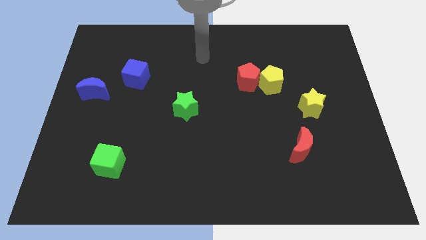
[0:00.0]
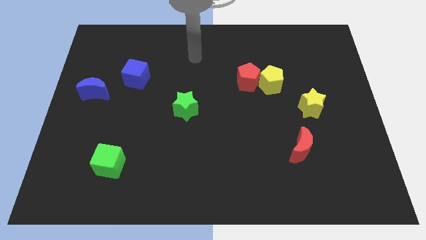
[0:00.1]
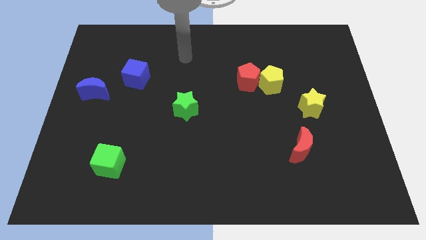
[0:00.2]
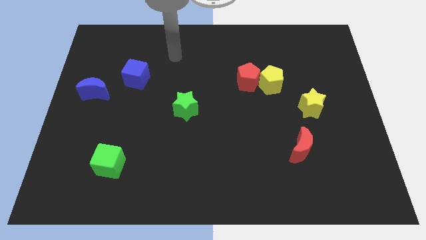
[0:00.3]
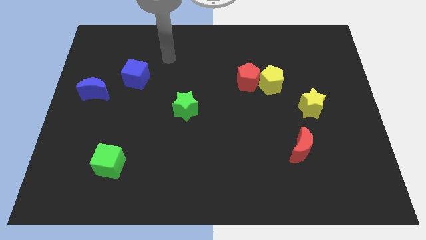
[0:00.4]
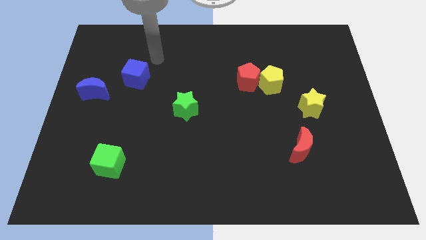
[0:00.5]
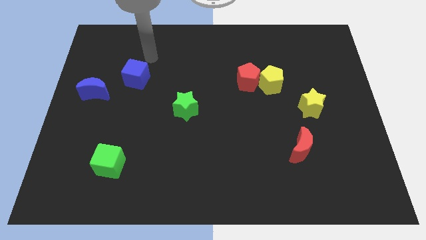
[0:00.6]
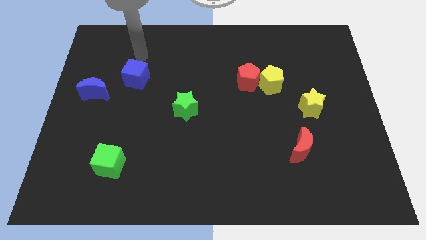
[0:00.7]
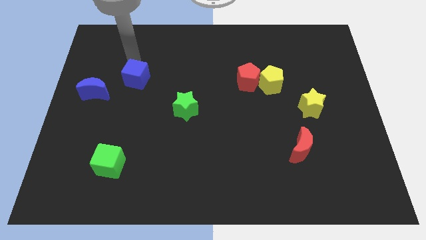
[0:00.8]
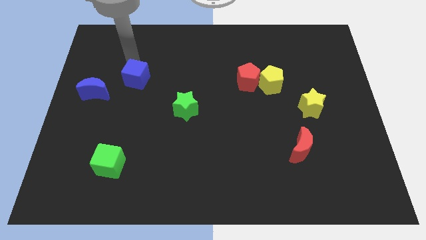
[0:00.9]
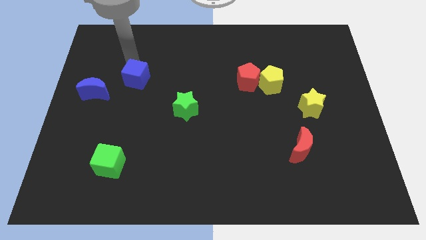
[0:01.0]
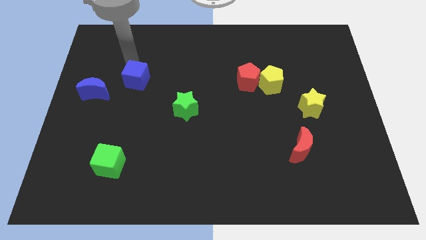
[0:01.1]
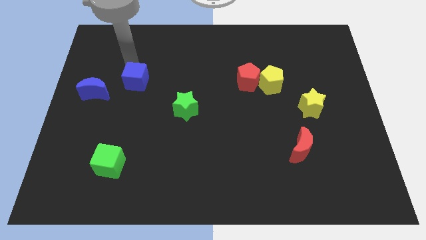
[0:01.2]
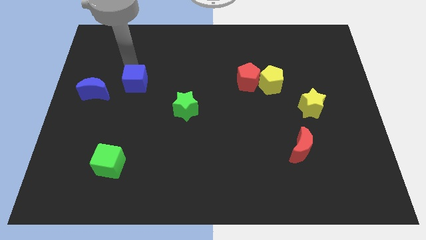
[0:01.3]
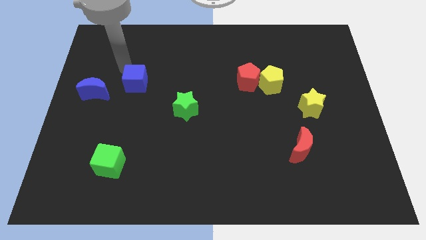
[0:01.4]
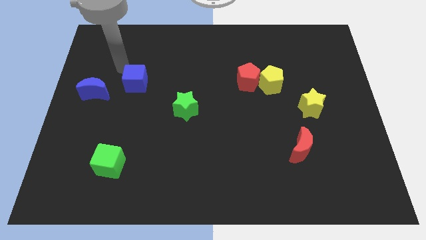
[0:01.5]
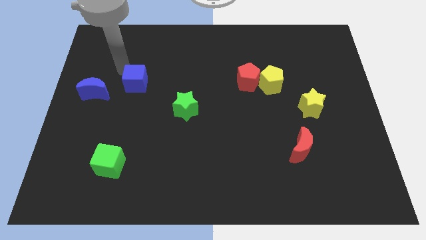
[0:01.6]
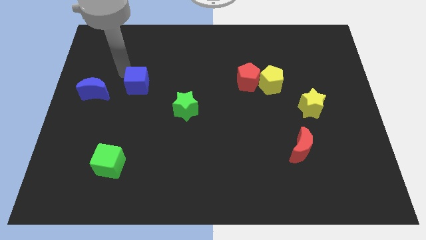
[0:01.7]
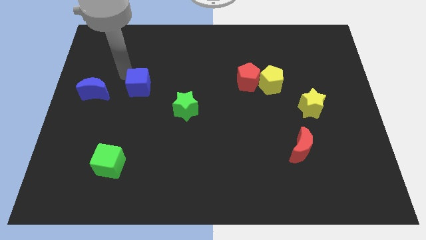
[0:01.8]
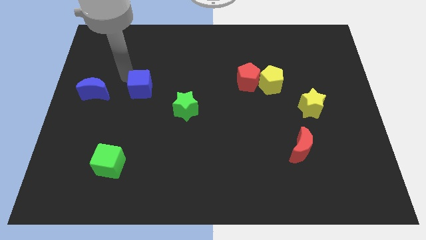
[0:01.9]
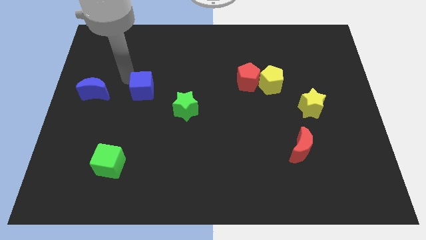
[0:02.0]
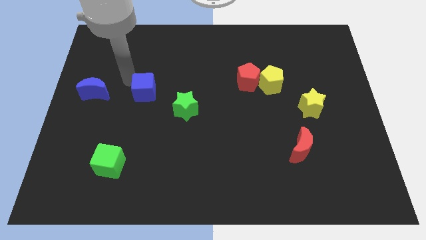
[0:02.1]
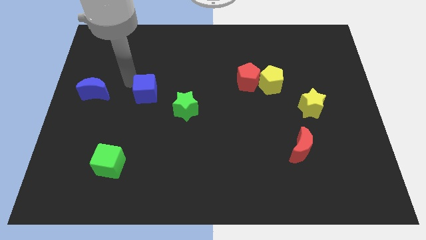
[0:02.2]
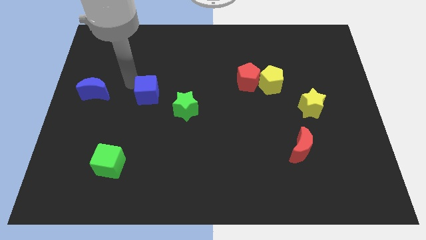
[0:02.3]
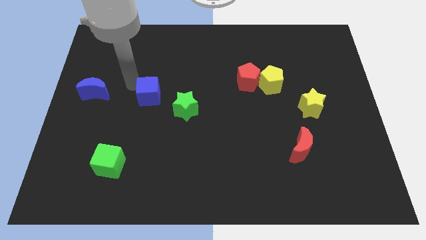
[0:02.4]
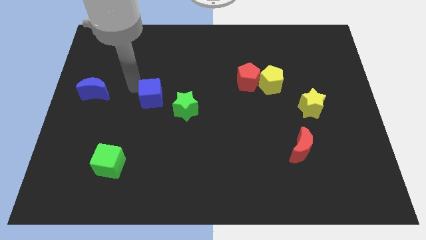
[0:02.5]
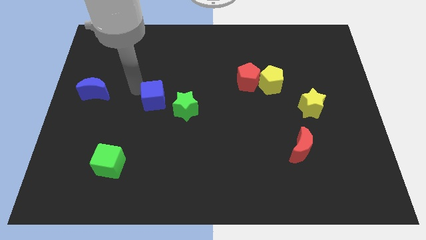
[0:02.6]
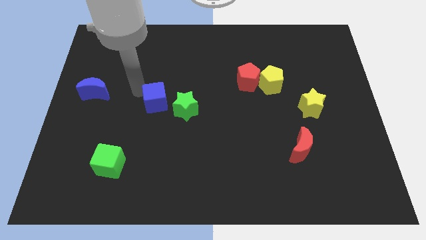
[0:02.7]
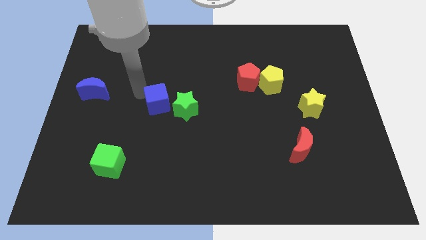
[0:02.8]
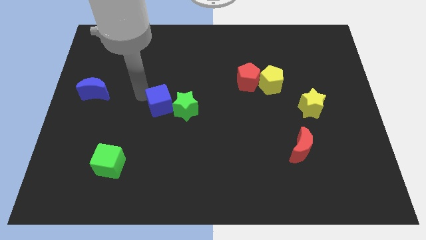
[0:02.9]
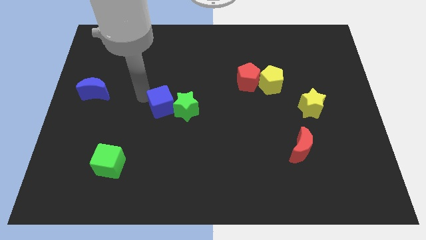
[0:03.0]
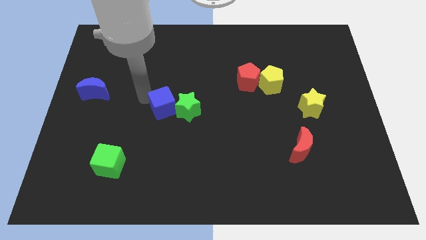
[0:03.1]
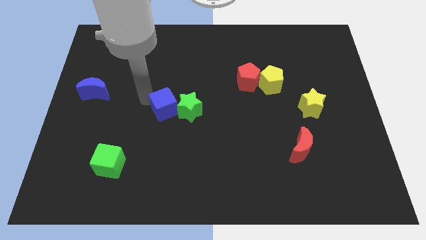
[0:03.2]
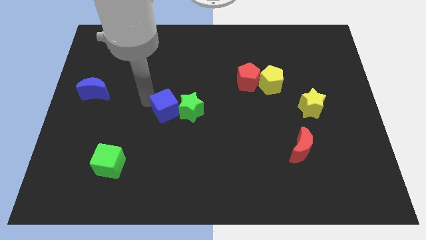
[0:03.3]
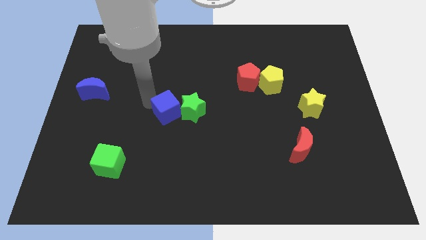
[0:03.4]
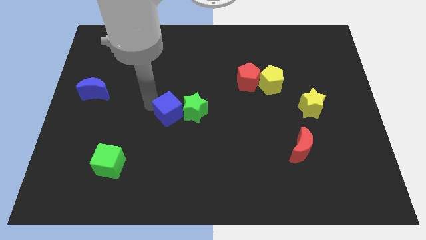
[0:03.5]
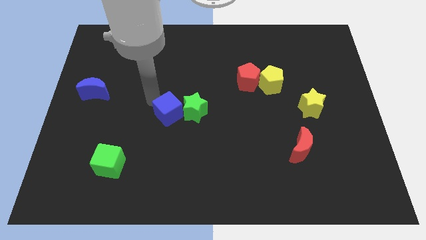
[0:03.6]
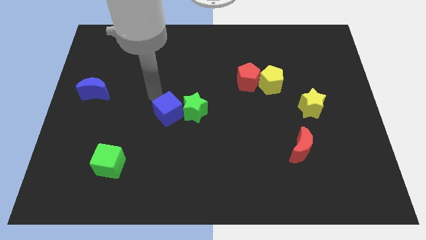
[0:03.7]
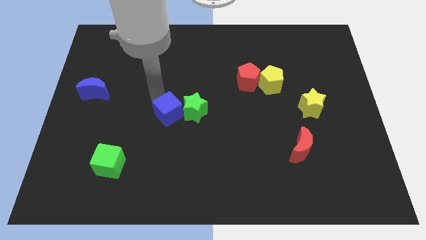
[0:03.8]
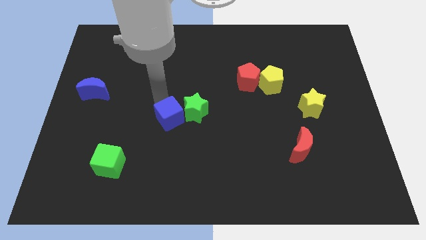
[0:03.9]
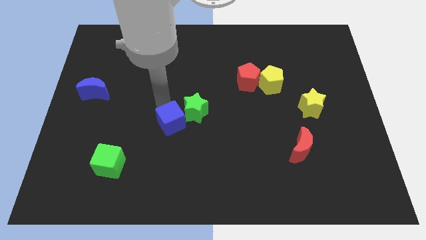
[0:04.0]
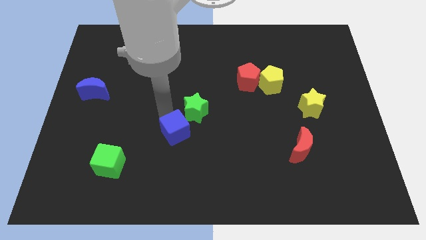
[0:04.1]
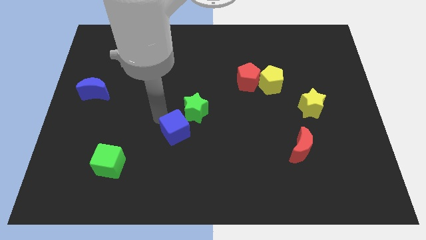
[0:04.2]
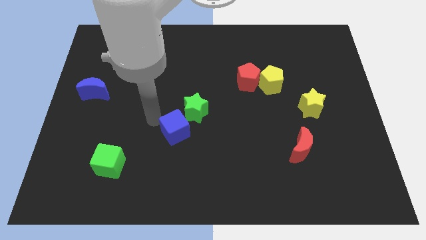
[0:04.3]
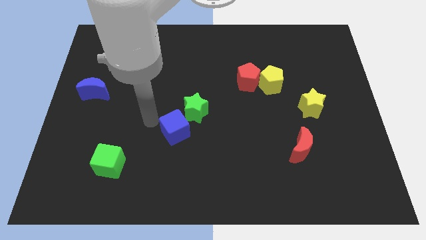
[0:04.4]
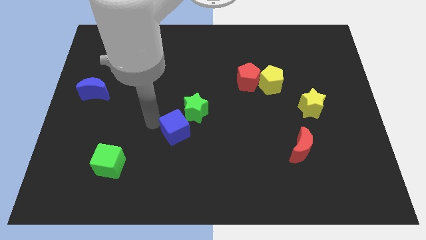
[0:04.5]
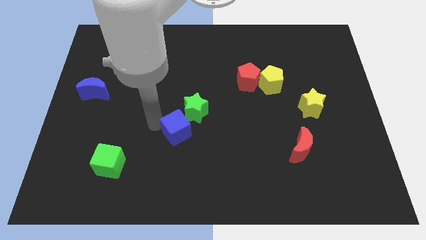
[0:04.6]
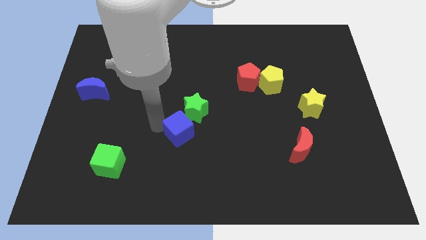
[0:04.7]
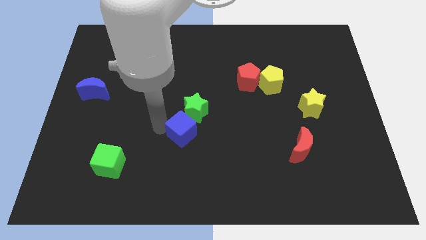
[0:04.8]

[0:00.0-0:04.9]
slide the blue cube diagonally down and right

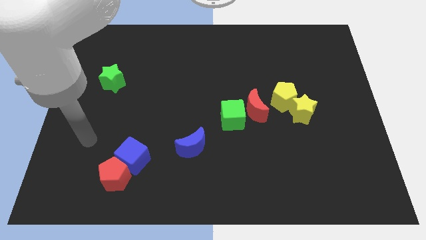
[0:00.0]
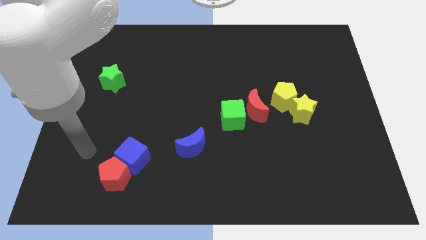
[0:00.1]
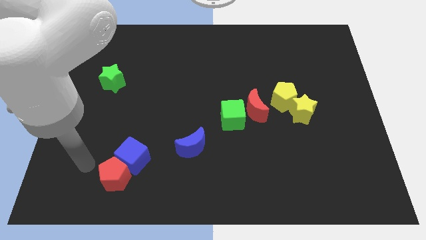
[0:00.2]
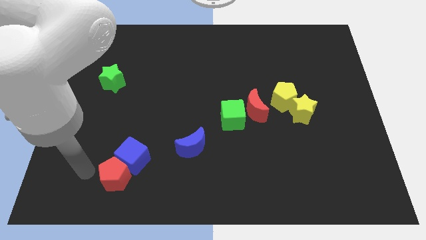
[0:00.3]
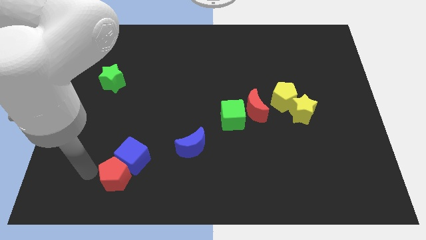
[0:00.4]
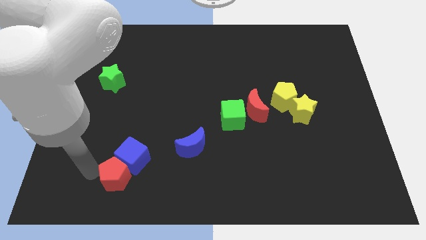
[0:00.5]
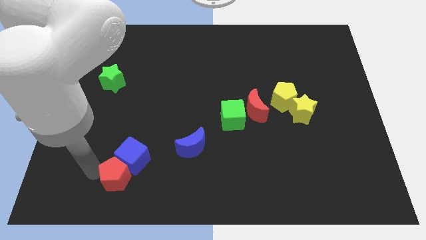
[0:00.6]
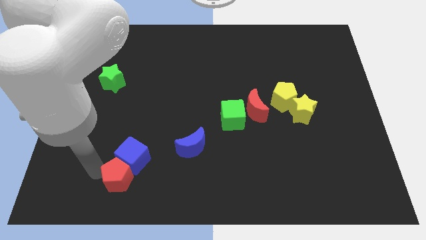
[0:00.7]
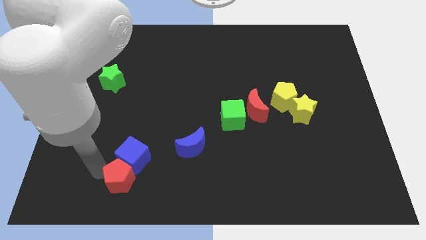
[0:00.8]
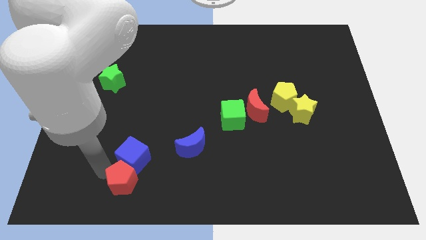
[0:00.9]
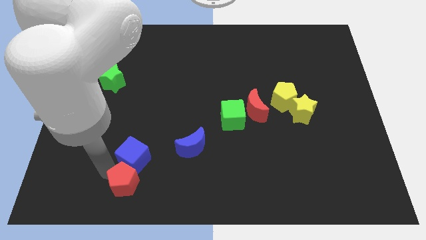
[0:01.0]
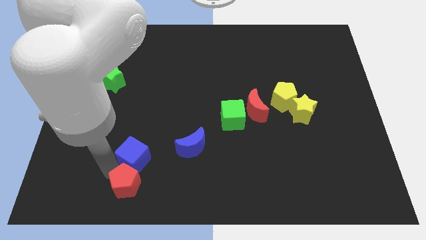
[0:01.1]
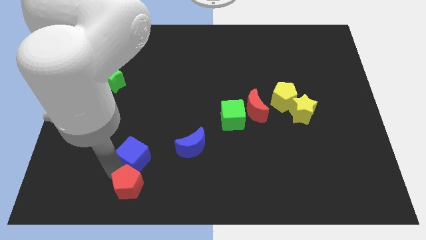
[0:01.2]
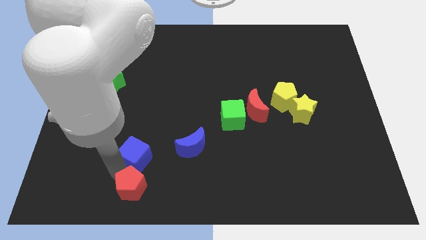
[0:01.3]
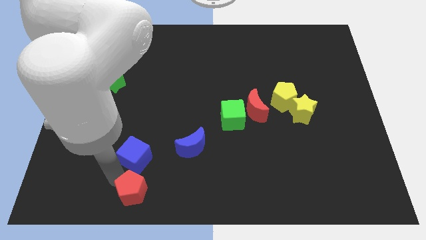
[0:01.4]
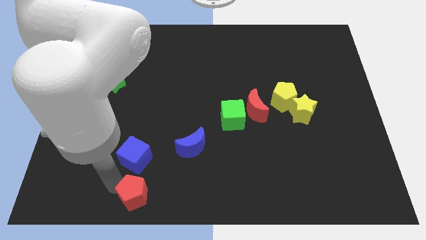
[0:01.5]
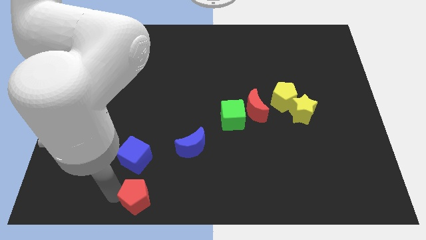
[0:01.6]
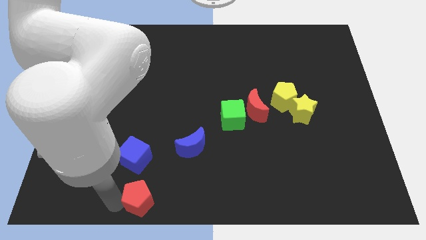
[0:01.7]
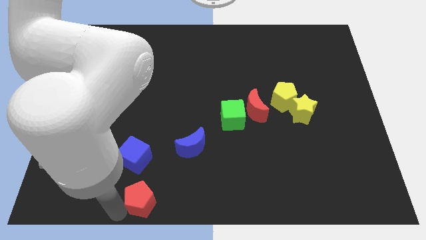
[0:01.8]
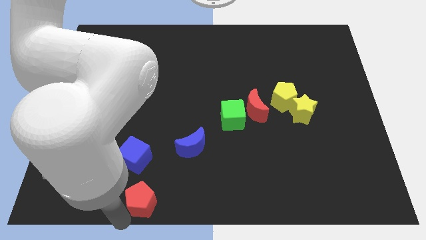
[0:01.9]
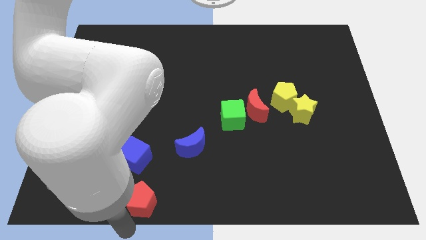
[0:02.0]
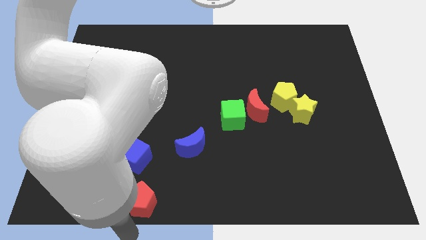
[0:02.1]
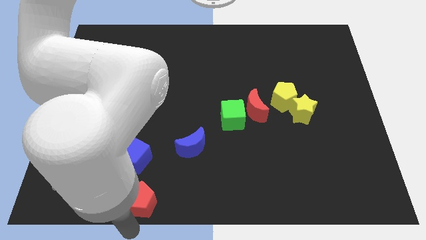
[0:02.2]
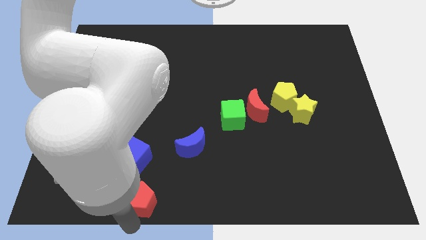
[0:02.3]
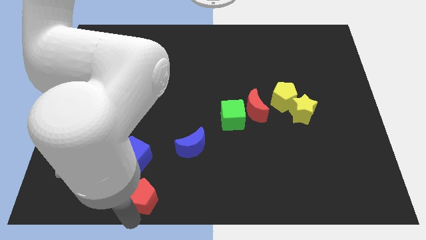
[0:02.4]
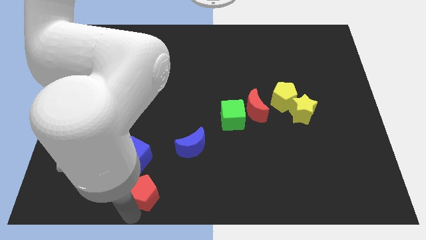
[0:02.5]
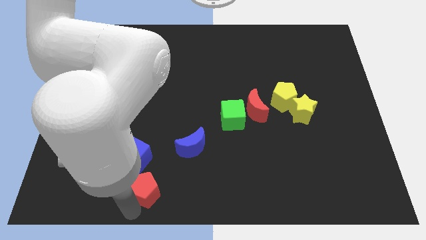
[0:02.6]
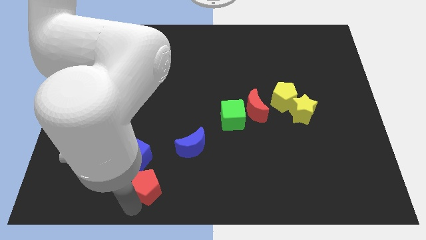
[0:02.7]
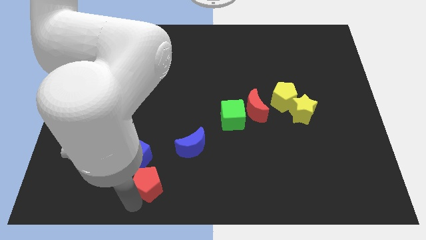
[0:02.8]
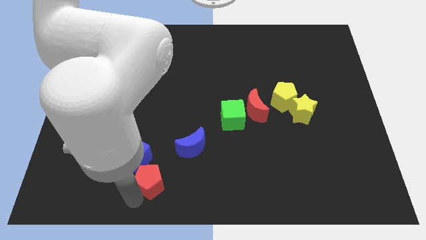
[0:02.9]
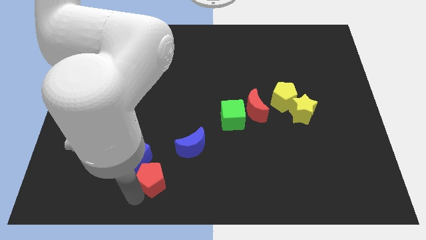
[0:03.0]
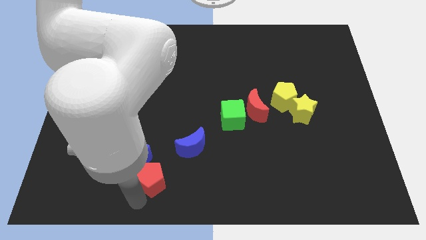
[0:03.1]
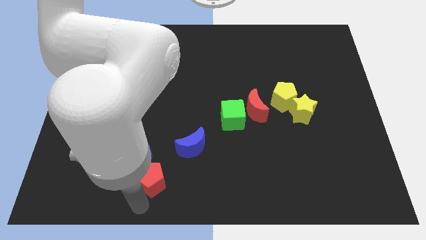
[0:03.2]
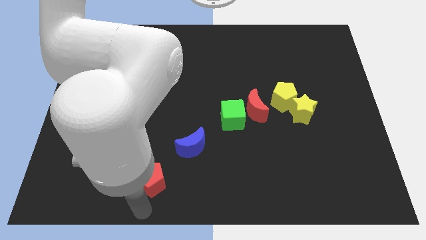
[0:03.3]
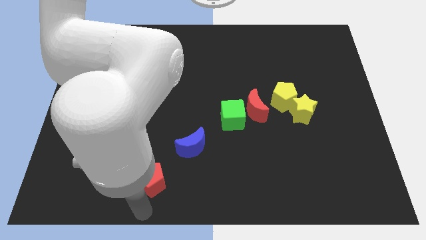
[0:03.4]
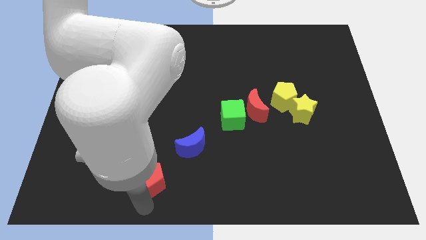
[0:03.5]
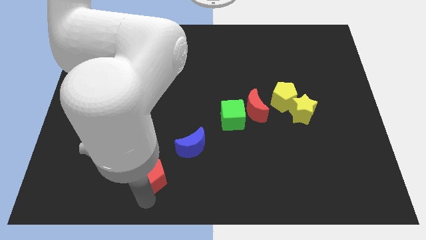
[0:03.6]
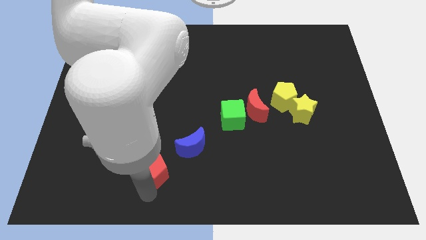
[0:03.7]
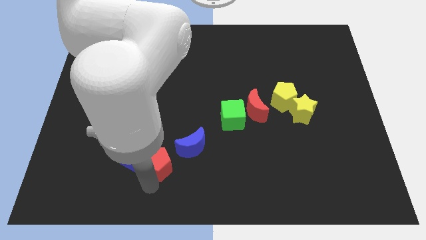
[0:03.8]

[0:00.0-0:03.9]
slightly move the red pentagon upwards and to the right diagonally
